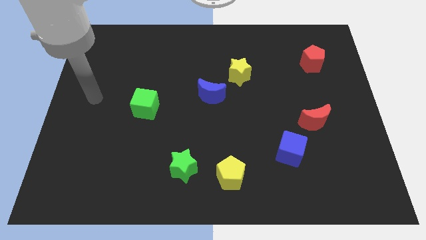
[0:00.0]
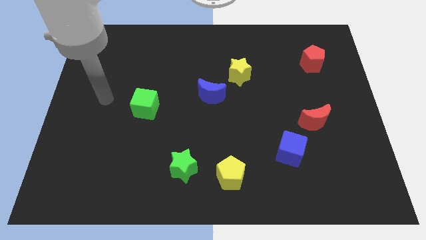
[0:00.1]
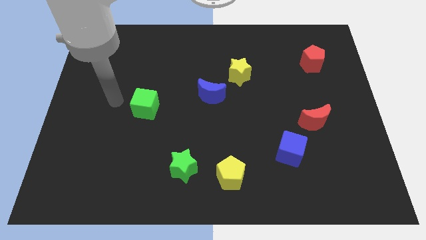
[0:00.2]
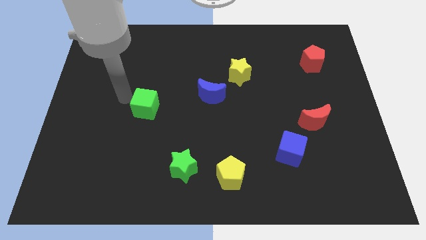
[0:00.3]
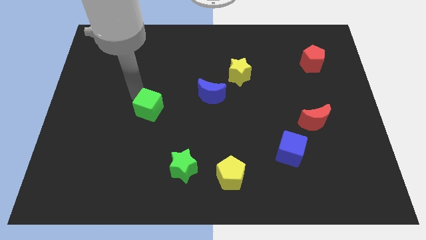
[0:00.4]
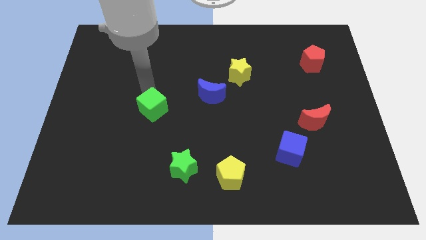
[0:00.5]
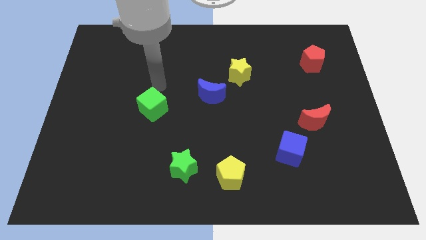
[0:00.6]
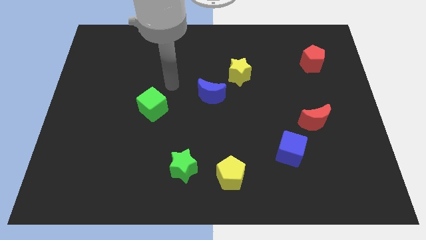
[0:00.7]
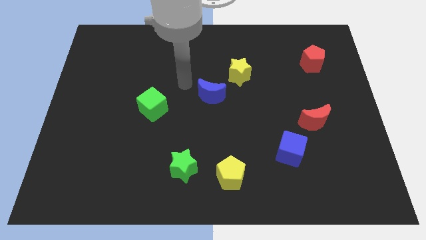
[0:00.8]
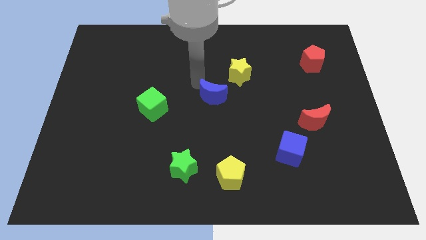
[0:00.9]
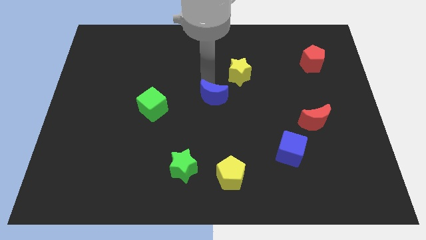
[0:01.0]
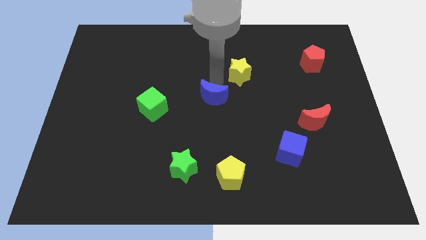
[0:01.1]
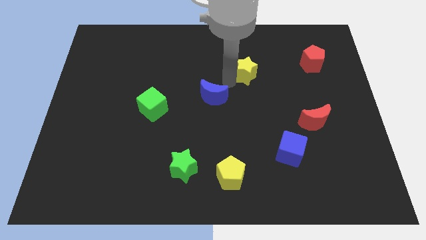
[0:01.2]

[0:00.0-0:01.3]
separate the blue moon from the yellow star

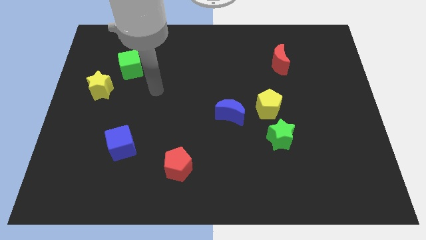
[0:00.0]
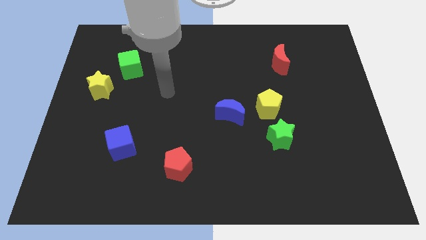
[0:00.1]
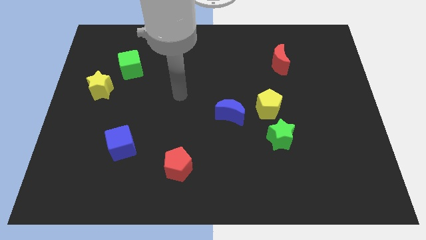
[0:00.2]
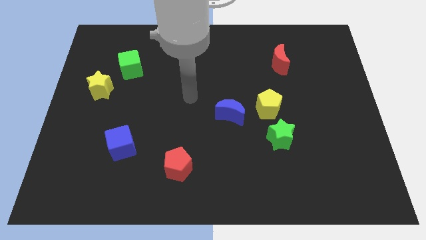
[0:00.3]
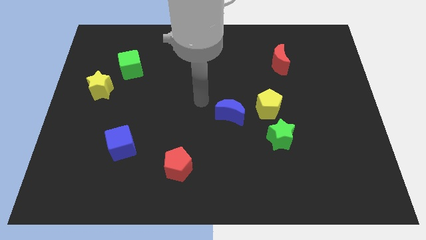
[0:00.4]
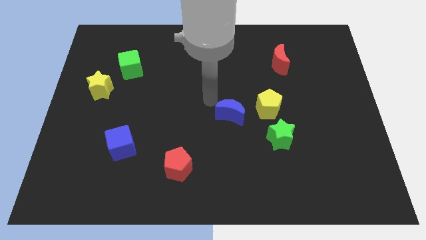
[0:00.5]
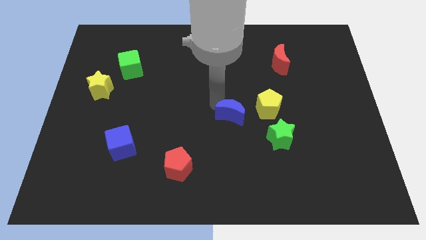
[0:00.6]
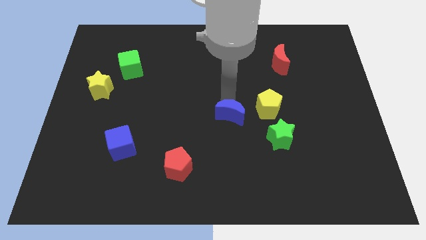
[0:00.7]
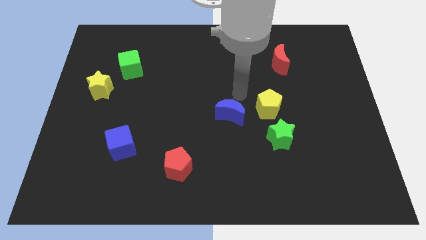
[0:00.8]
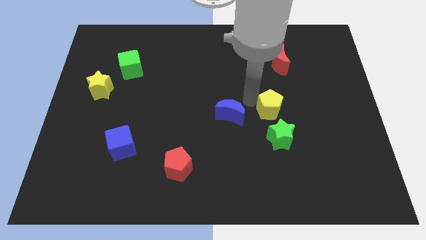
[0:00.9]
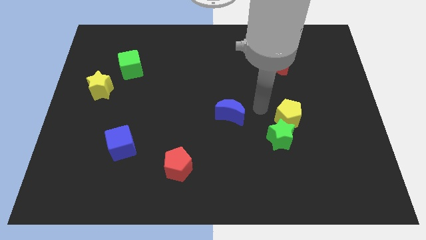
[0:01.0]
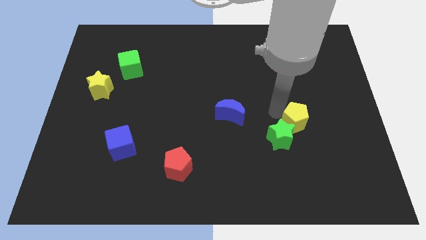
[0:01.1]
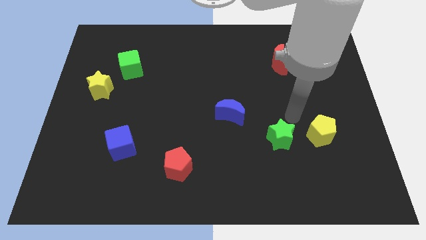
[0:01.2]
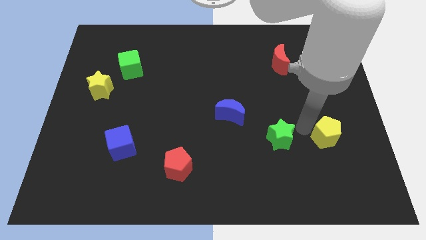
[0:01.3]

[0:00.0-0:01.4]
move the green star away from the yellow pentagon

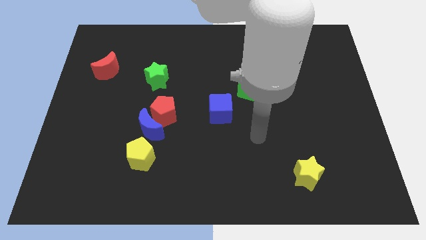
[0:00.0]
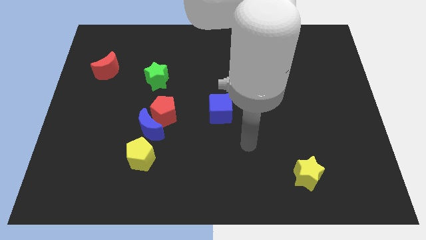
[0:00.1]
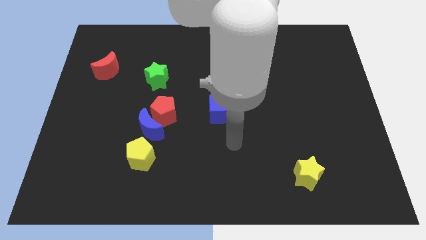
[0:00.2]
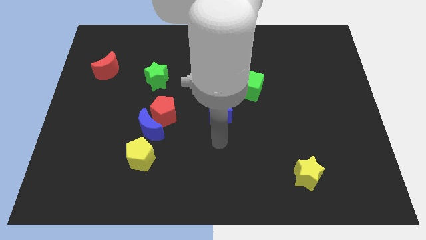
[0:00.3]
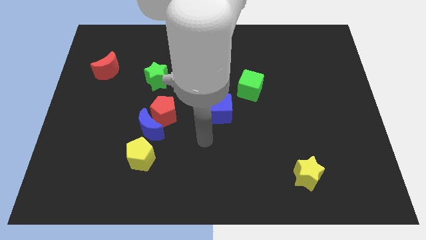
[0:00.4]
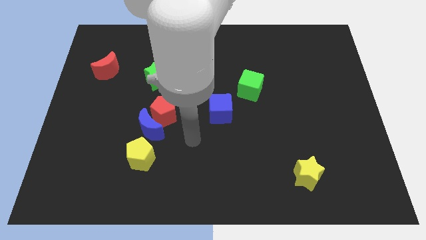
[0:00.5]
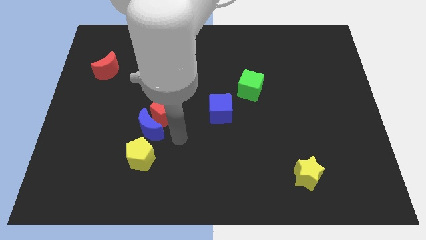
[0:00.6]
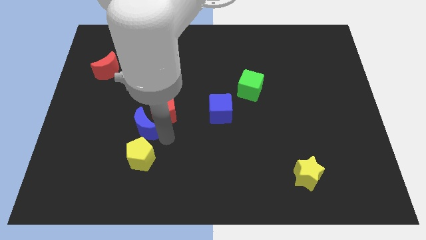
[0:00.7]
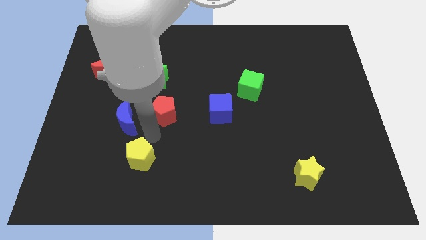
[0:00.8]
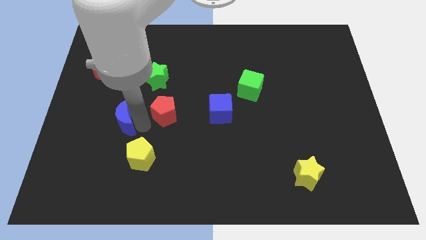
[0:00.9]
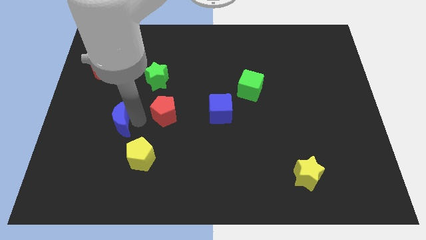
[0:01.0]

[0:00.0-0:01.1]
pull the red pentagon apart from the blue moon

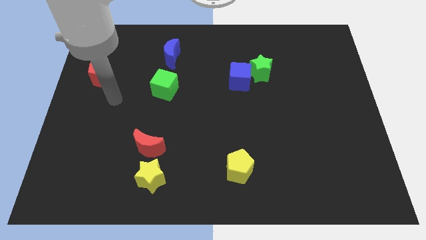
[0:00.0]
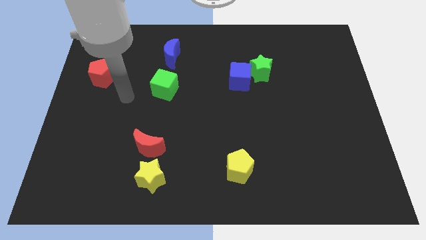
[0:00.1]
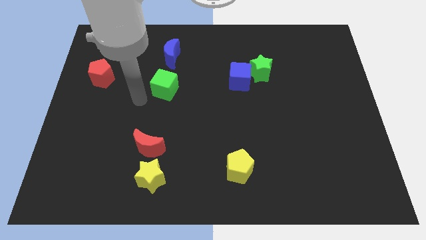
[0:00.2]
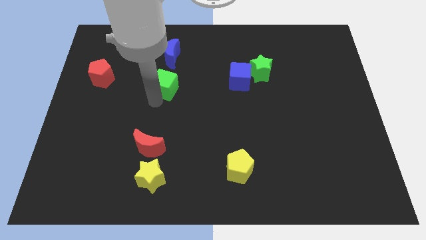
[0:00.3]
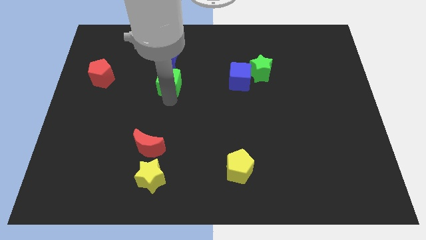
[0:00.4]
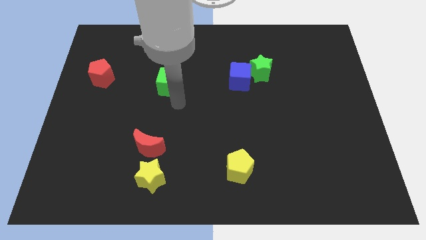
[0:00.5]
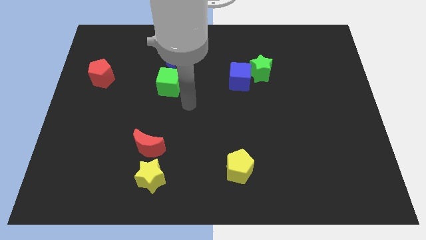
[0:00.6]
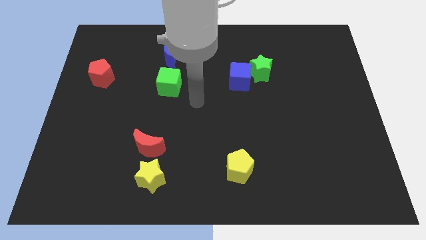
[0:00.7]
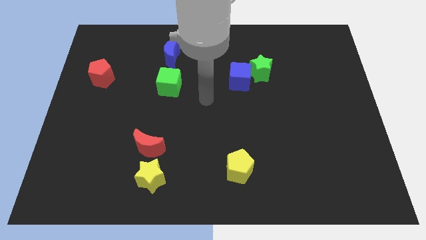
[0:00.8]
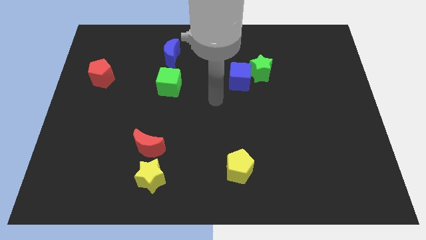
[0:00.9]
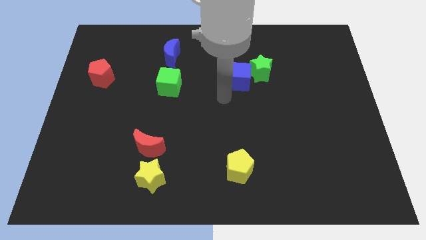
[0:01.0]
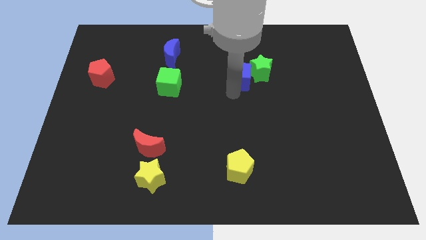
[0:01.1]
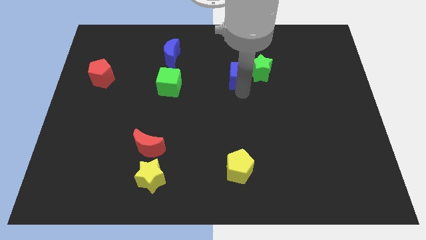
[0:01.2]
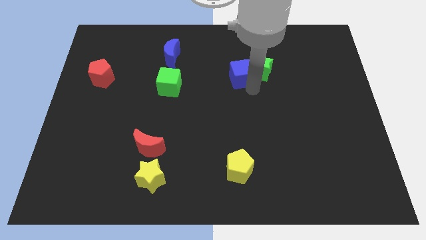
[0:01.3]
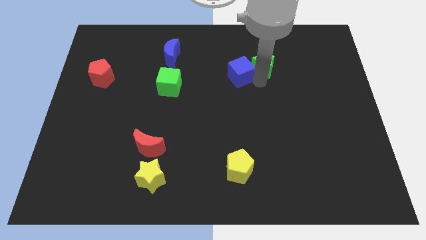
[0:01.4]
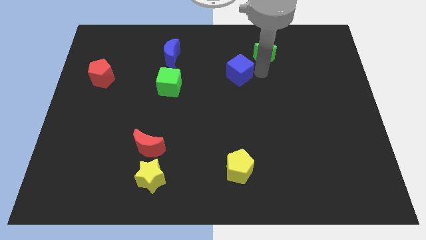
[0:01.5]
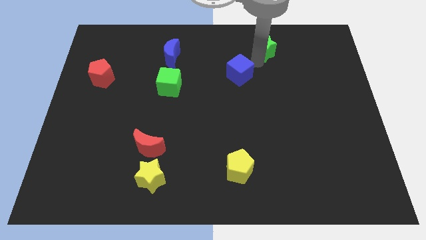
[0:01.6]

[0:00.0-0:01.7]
move the blue cube away from the green star

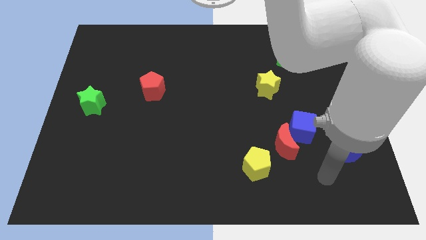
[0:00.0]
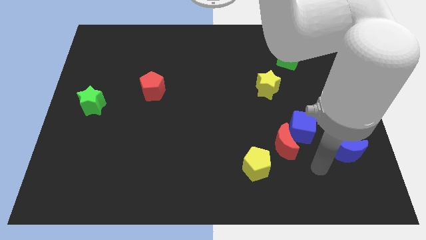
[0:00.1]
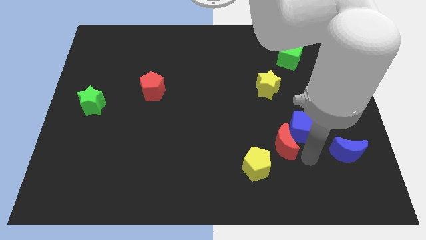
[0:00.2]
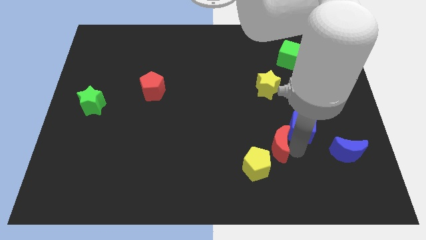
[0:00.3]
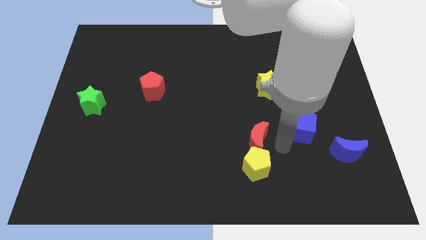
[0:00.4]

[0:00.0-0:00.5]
separate the blue cube from the red moon

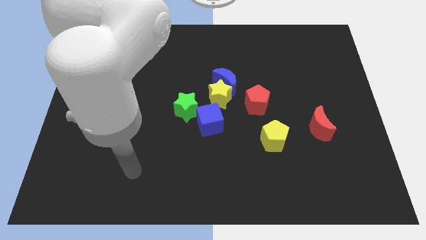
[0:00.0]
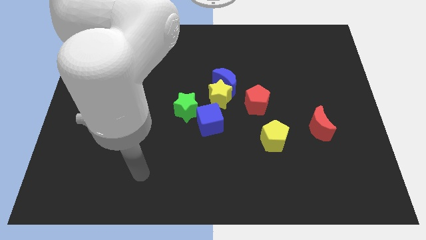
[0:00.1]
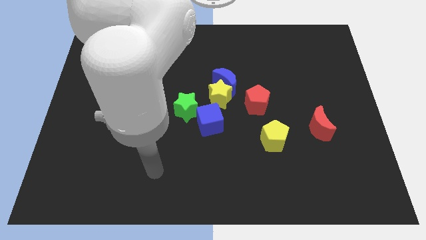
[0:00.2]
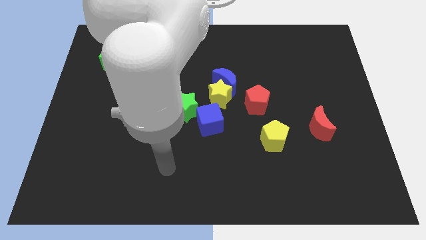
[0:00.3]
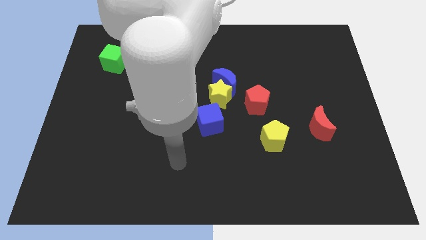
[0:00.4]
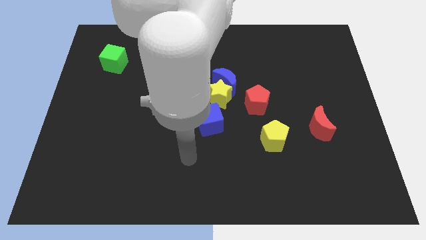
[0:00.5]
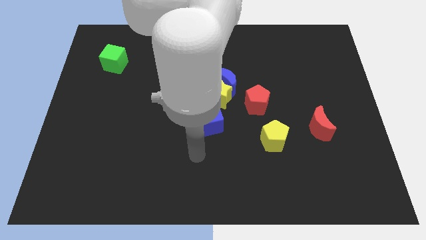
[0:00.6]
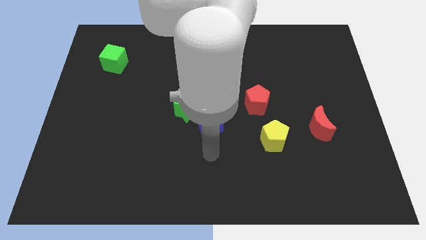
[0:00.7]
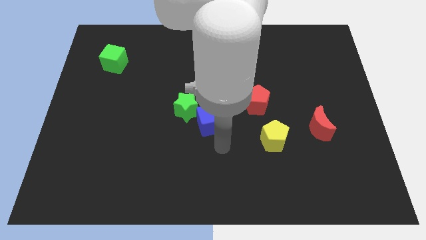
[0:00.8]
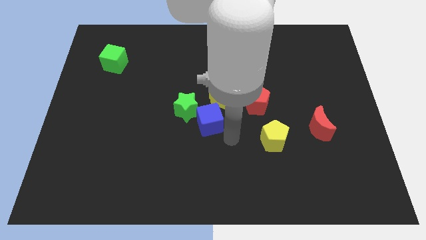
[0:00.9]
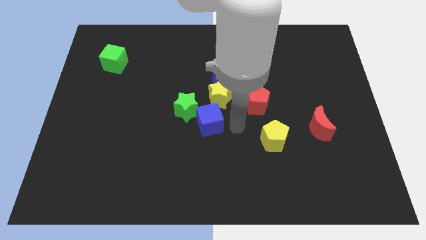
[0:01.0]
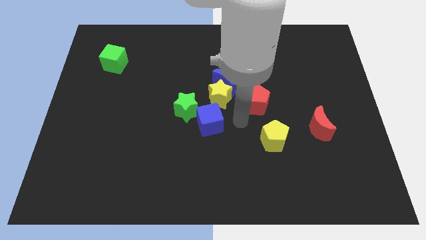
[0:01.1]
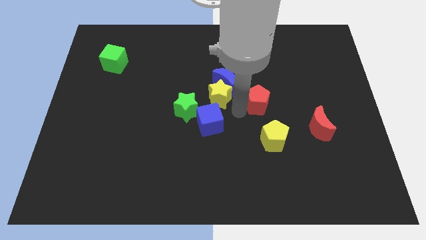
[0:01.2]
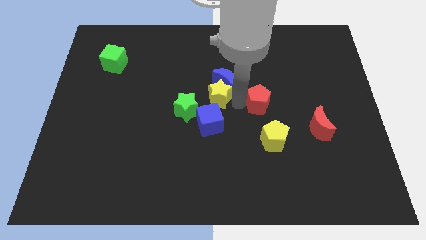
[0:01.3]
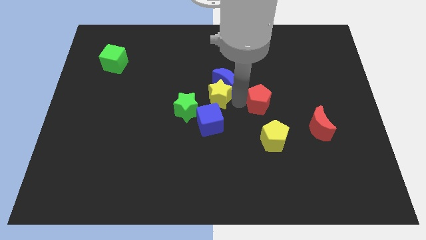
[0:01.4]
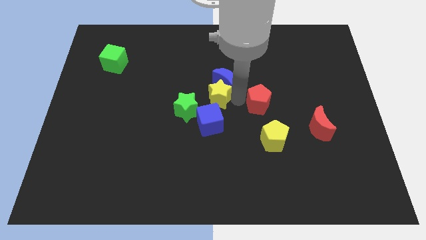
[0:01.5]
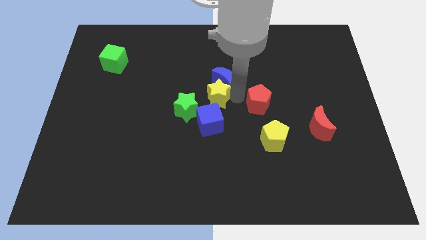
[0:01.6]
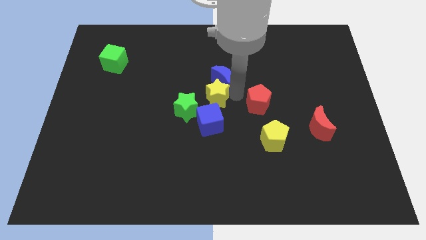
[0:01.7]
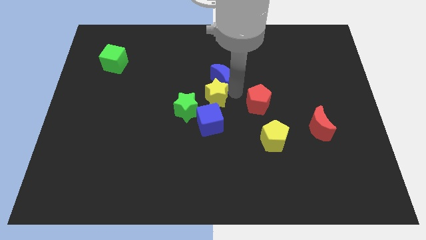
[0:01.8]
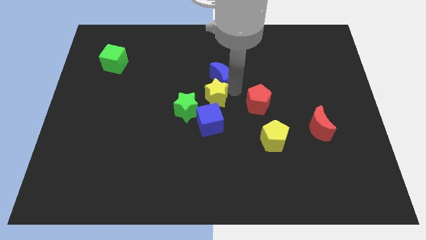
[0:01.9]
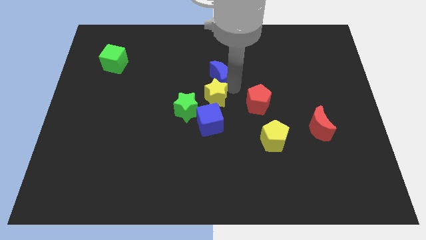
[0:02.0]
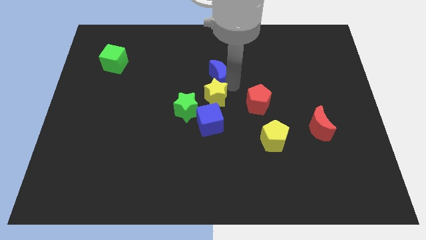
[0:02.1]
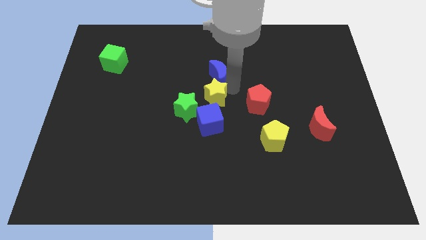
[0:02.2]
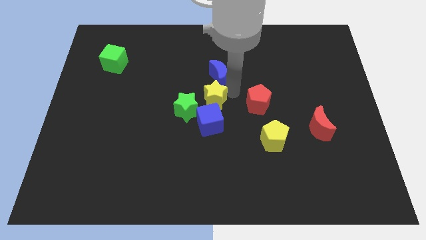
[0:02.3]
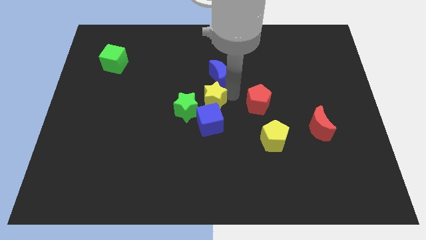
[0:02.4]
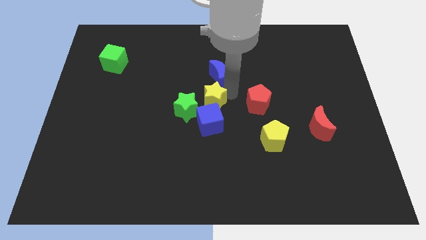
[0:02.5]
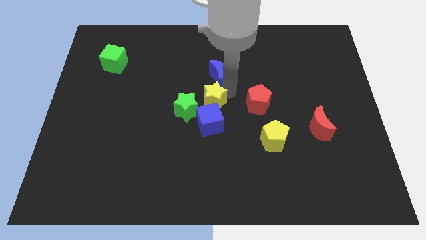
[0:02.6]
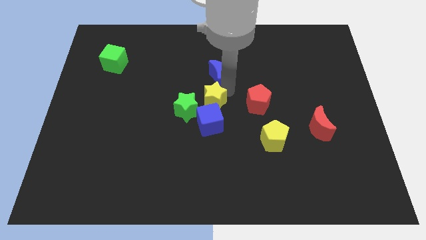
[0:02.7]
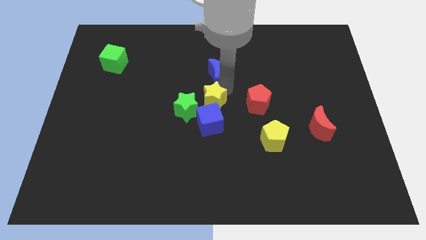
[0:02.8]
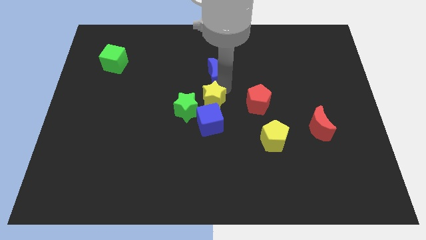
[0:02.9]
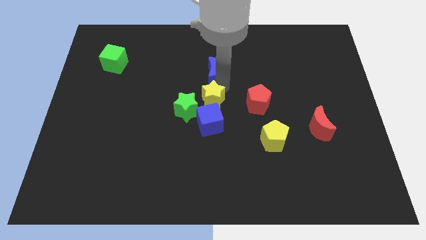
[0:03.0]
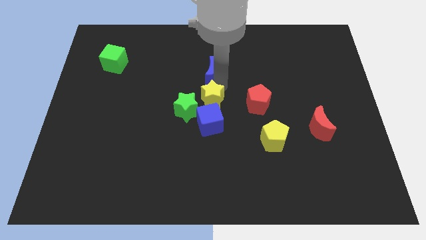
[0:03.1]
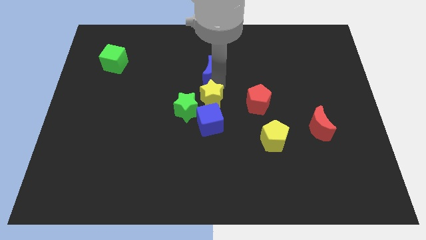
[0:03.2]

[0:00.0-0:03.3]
separate the blue moon from the yellow star and red pentagon

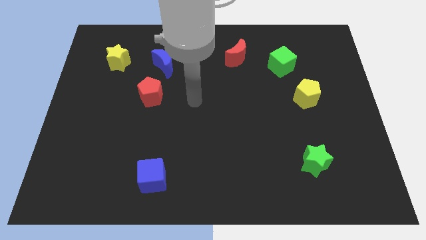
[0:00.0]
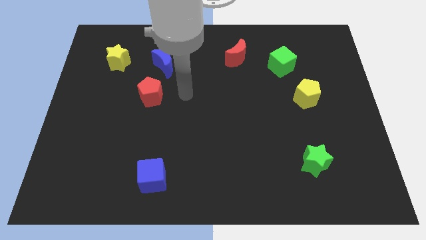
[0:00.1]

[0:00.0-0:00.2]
separate the red pentagon from the blue moon
